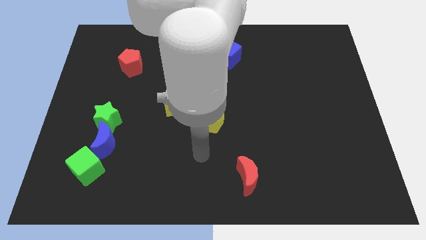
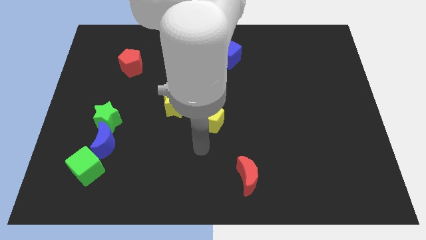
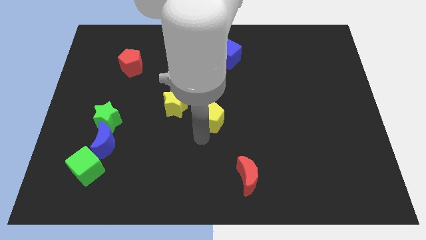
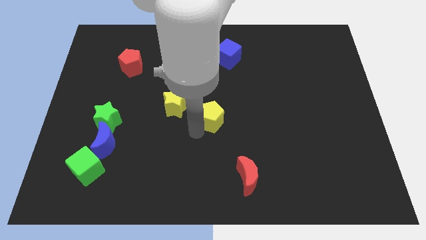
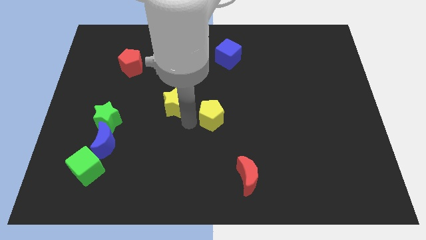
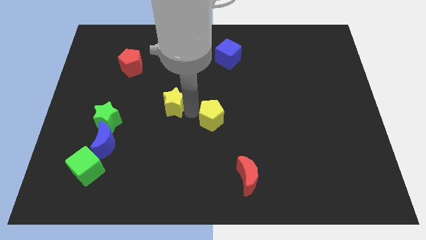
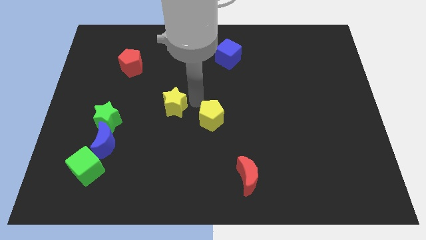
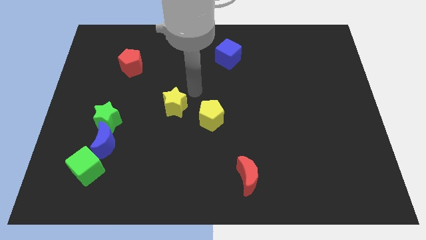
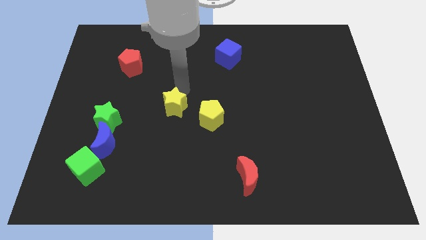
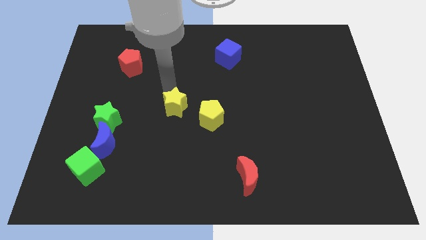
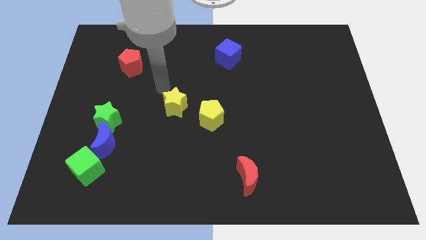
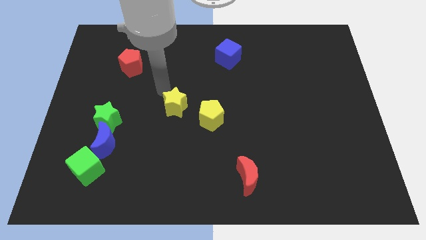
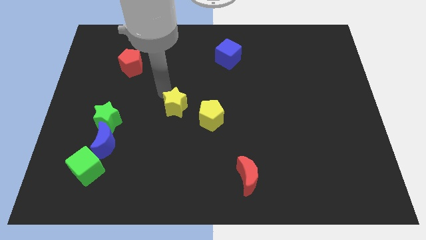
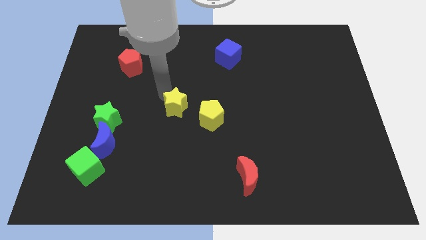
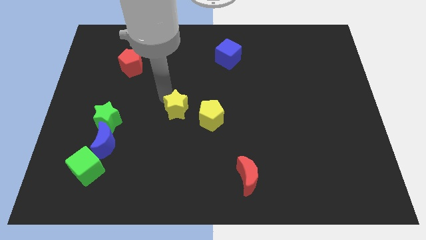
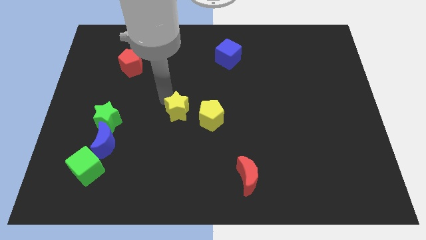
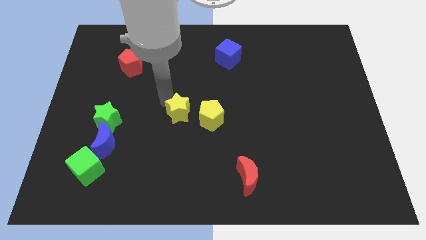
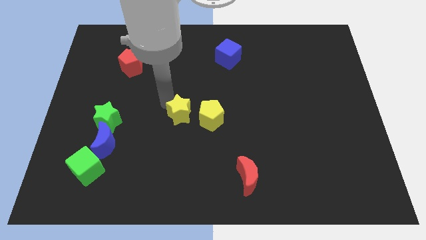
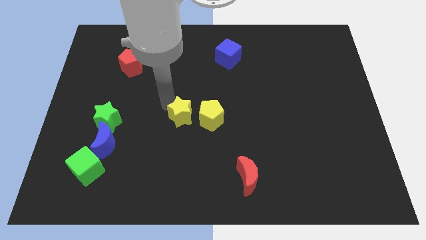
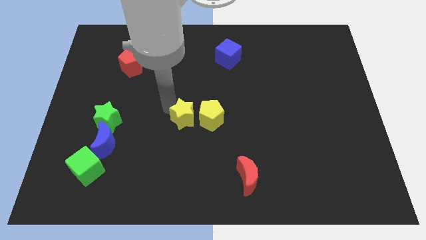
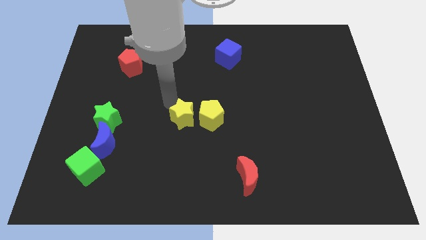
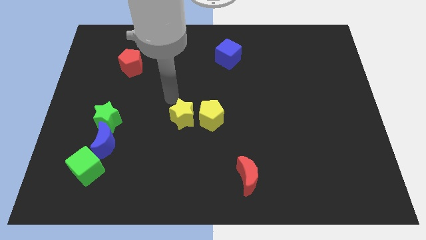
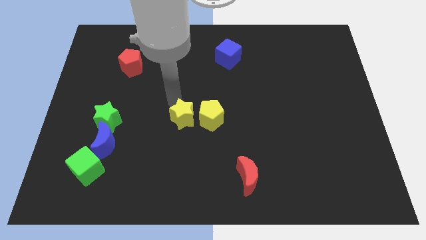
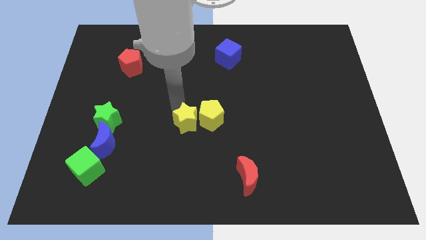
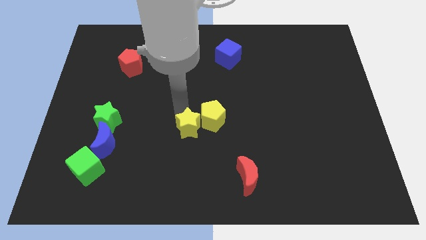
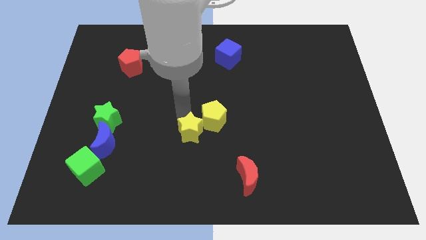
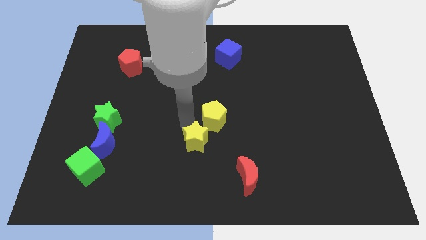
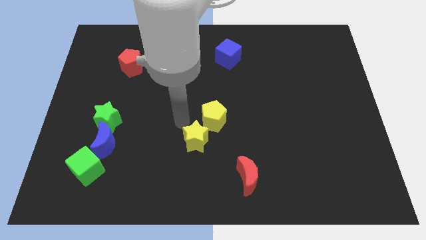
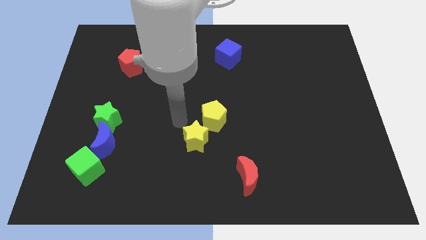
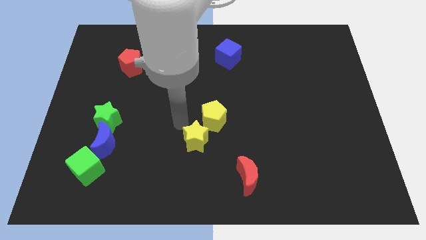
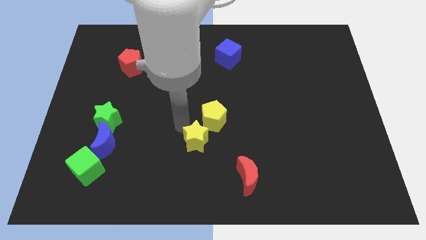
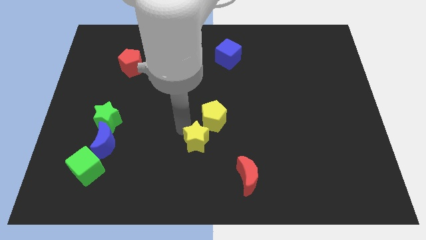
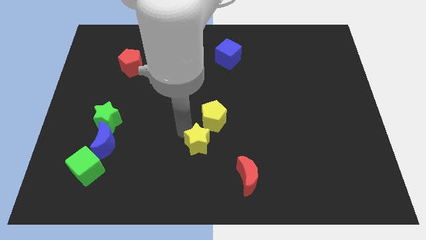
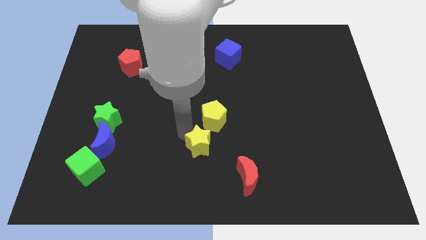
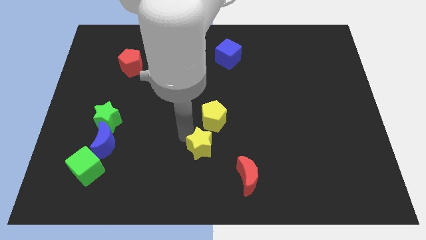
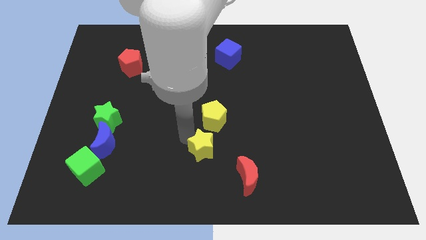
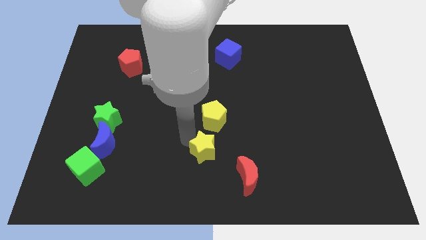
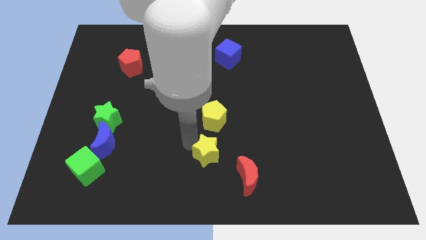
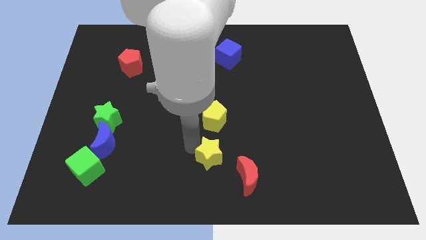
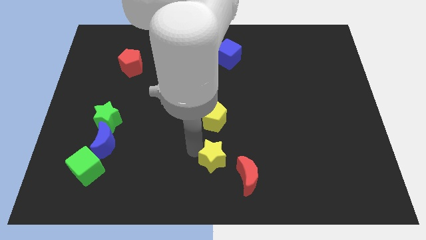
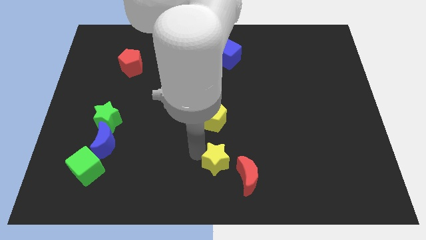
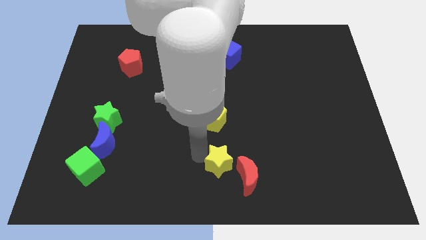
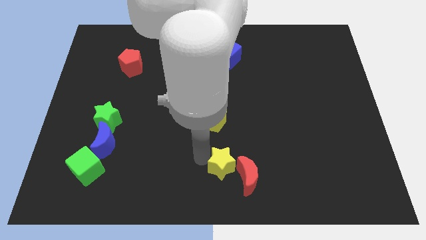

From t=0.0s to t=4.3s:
push the yellow star towards the red moon

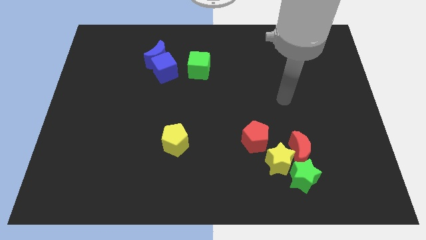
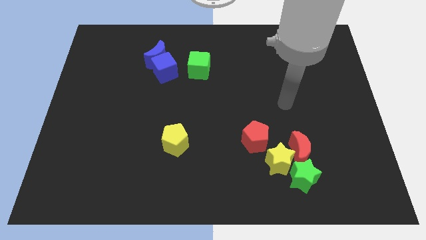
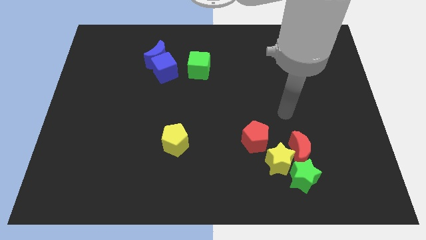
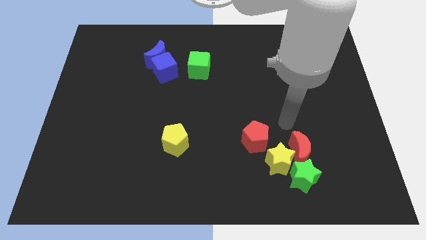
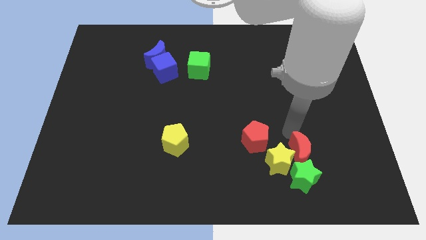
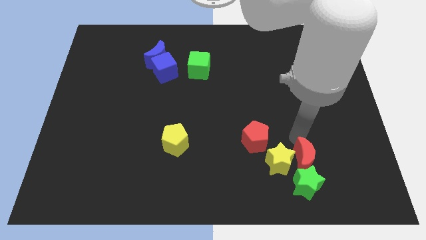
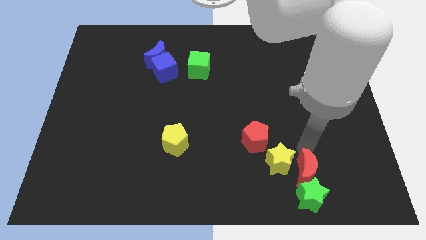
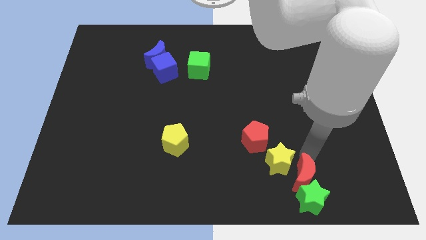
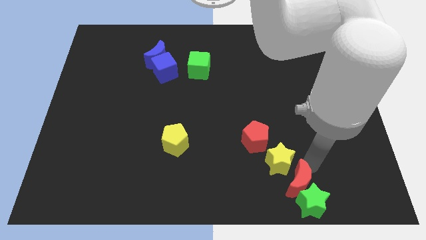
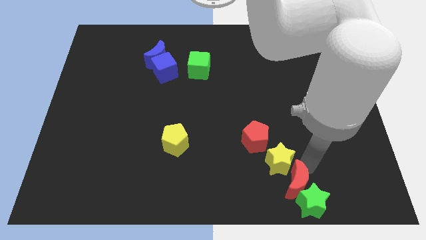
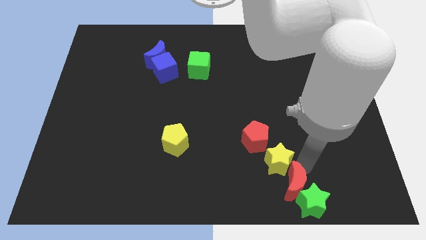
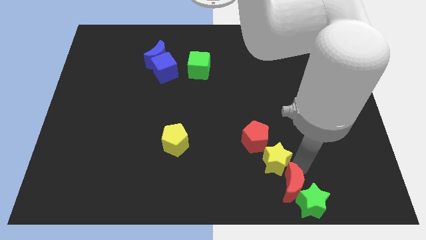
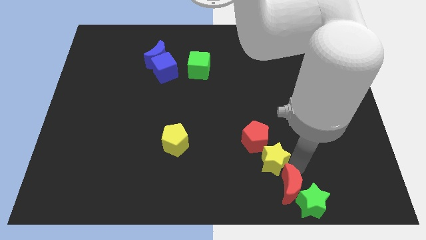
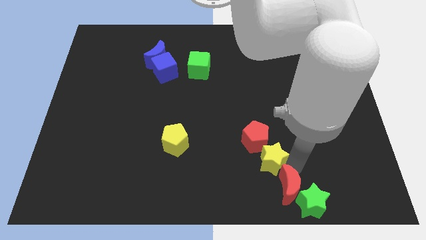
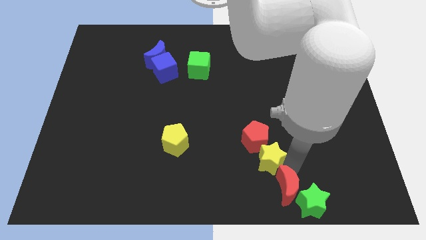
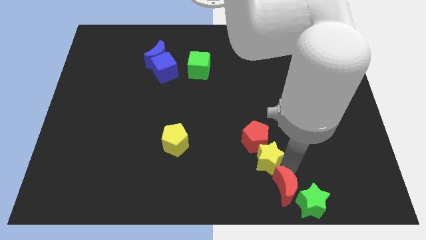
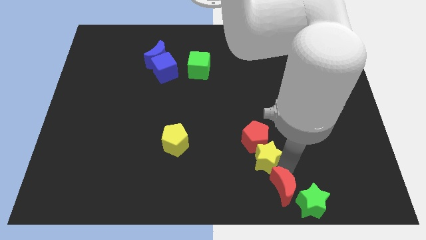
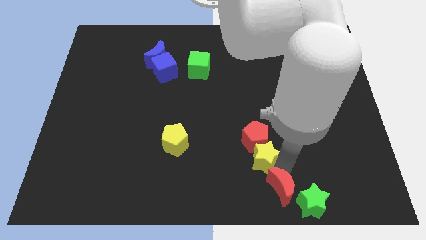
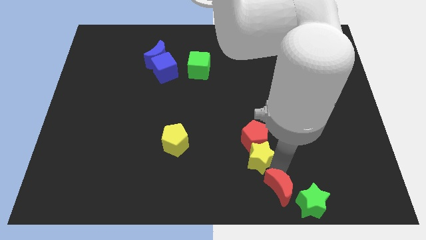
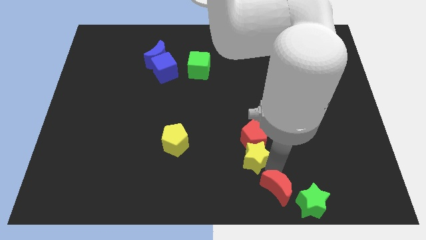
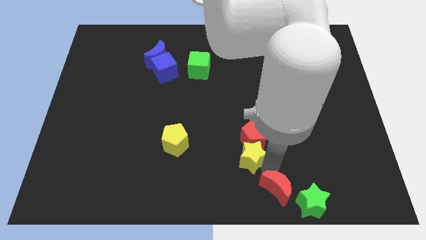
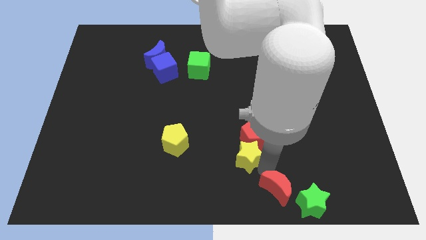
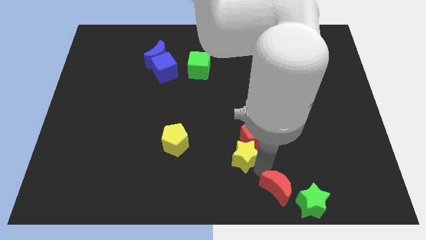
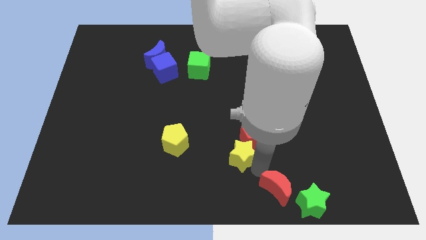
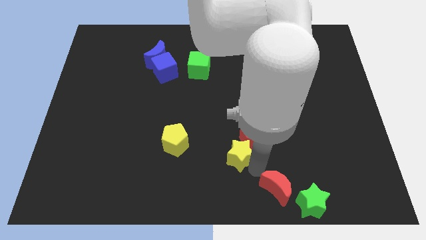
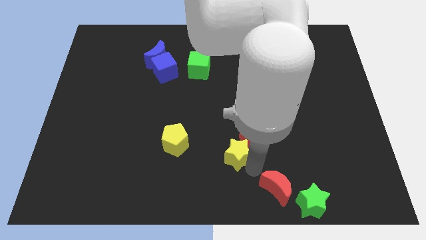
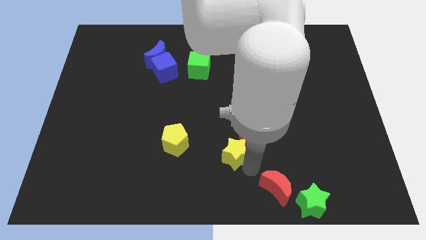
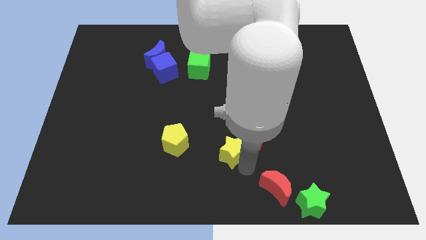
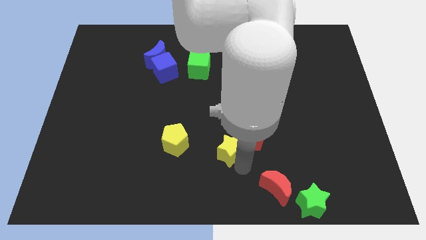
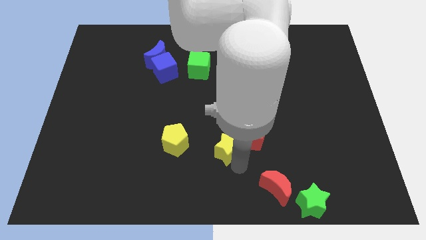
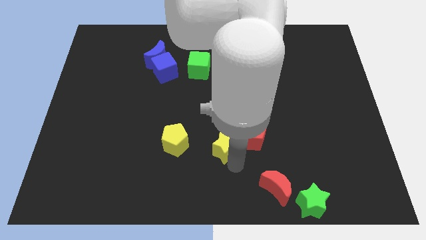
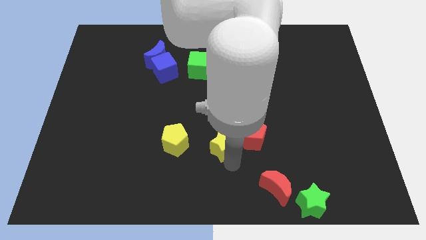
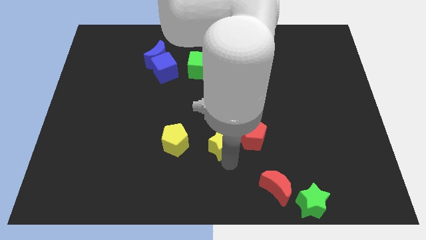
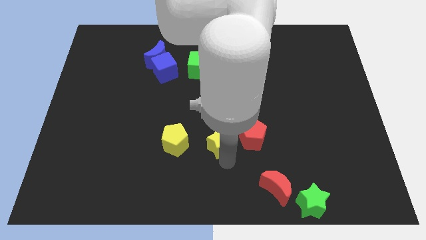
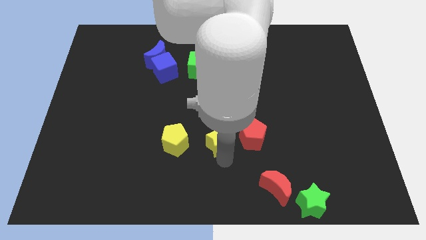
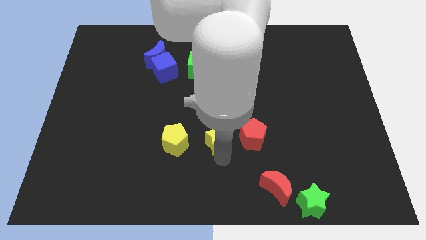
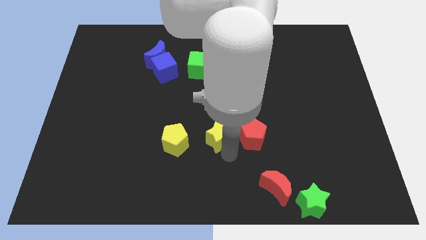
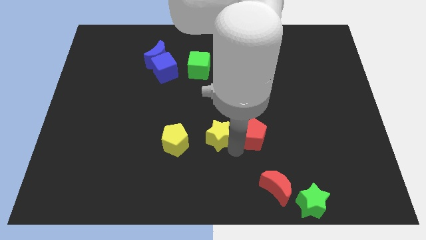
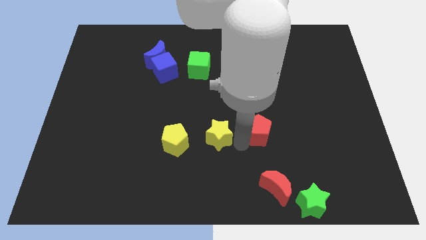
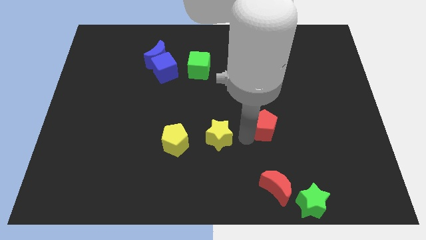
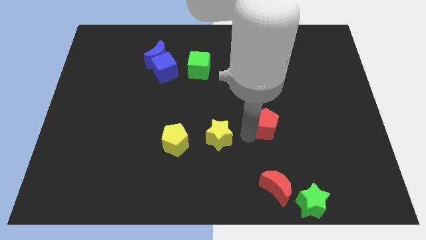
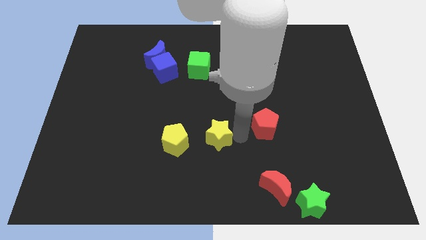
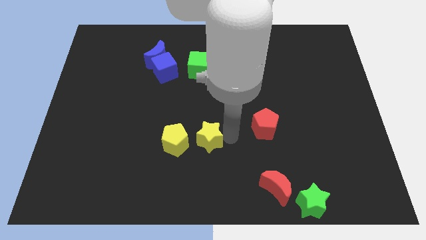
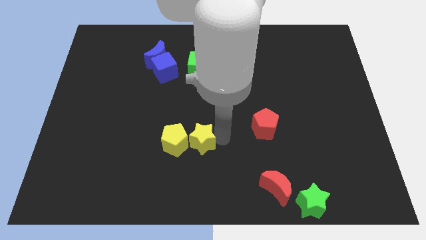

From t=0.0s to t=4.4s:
move the yellow star close to the yellow pentagon
